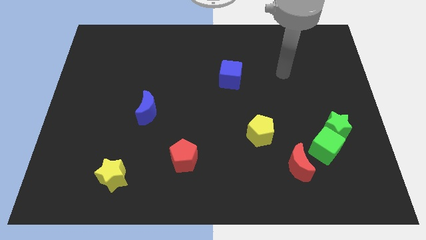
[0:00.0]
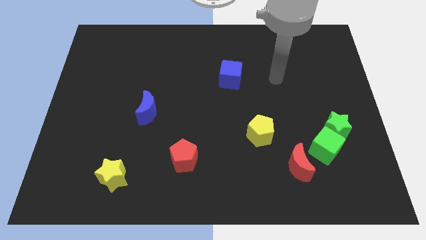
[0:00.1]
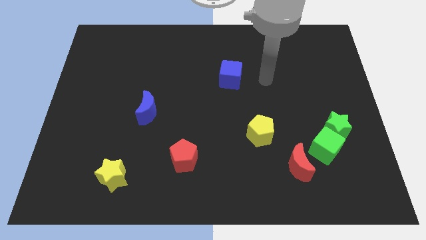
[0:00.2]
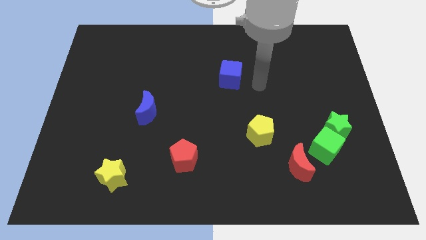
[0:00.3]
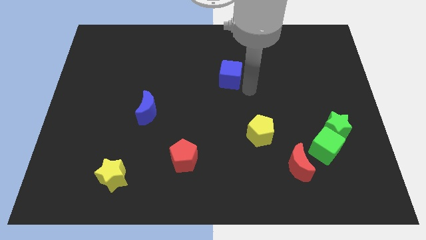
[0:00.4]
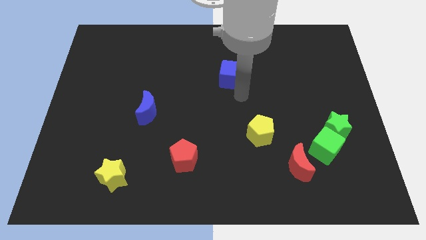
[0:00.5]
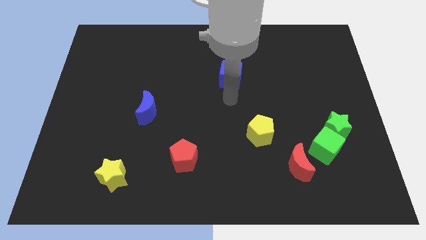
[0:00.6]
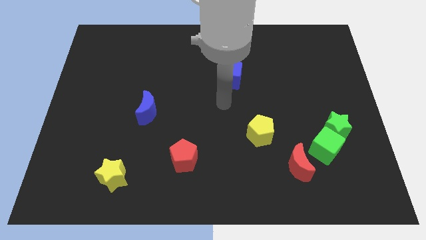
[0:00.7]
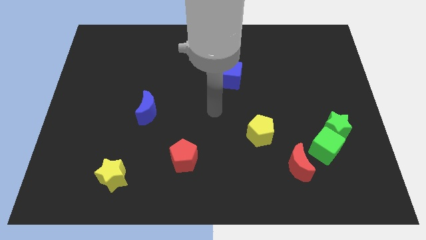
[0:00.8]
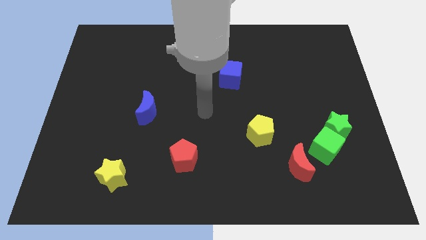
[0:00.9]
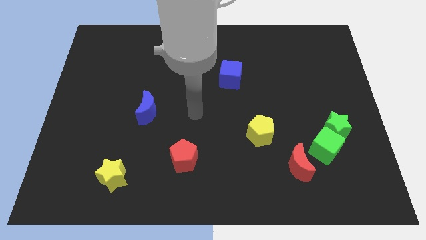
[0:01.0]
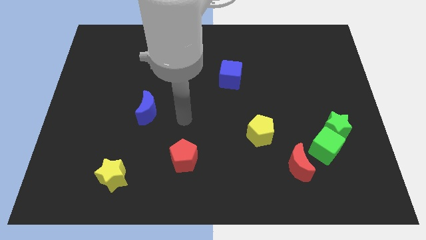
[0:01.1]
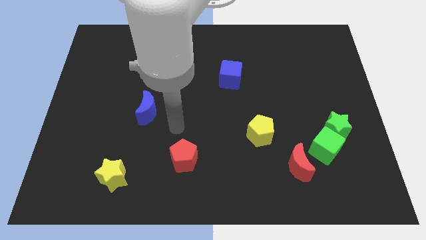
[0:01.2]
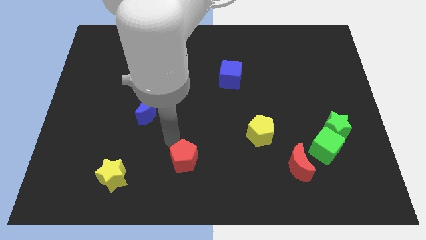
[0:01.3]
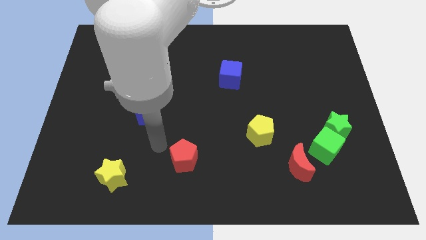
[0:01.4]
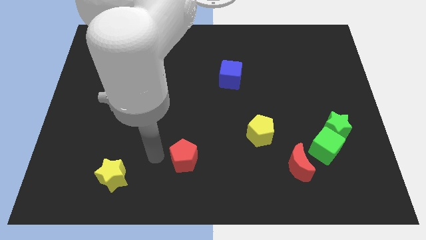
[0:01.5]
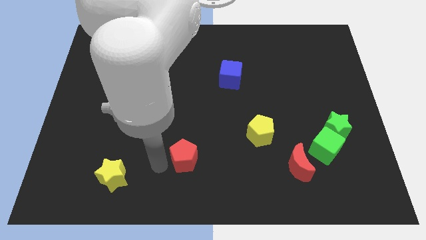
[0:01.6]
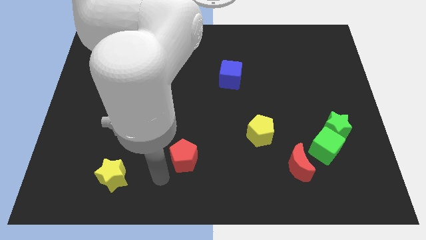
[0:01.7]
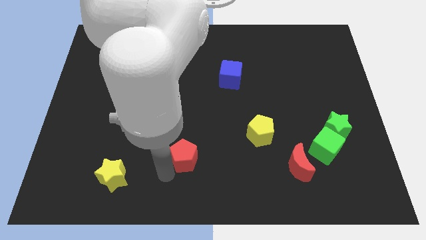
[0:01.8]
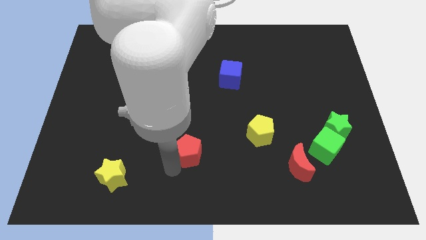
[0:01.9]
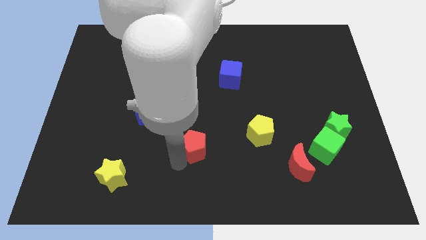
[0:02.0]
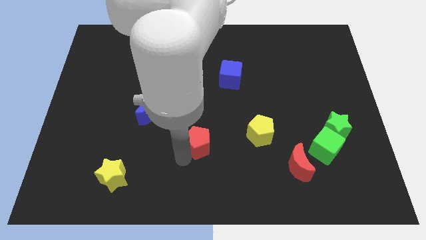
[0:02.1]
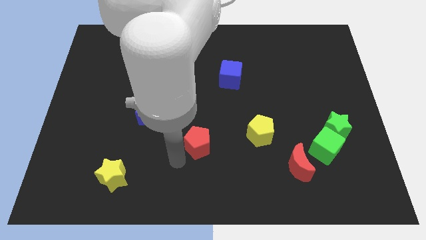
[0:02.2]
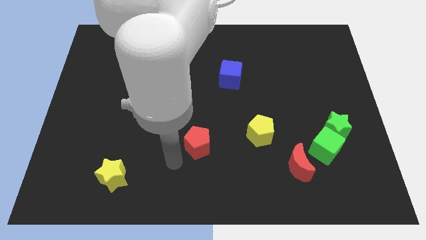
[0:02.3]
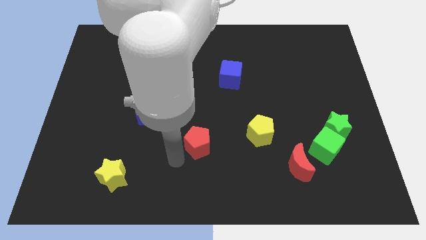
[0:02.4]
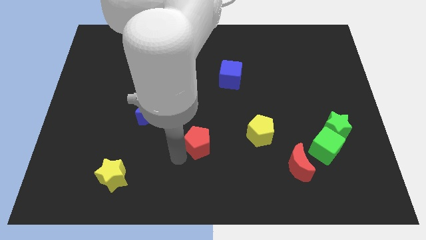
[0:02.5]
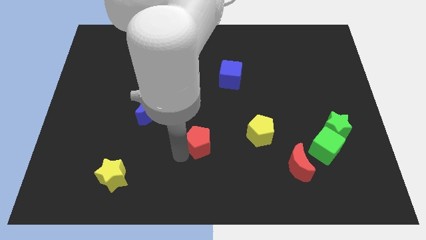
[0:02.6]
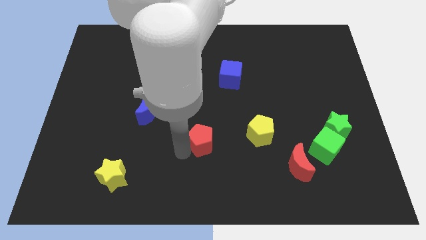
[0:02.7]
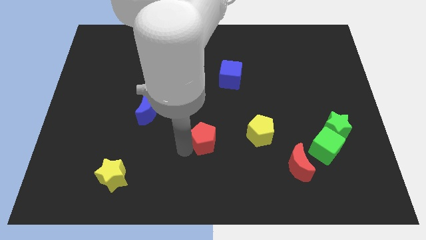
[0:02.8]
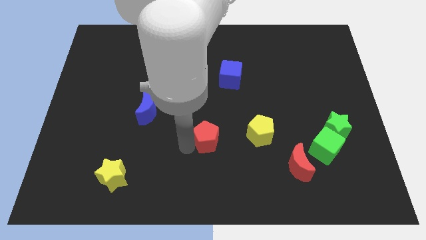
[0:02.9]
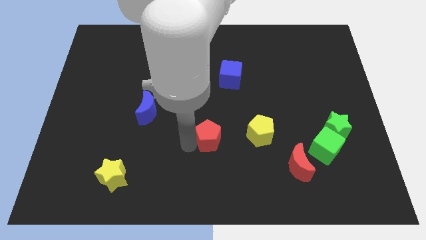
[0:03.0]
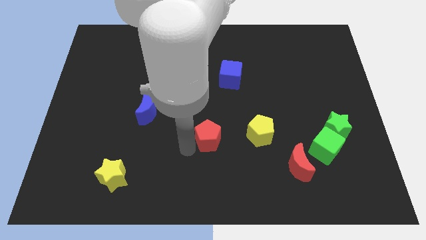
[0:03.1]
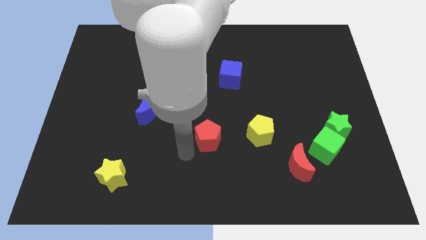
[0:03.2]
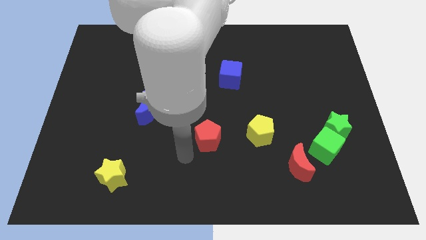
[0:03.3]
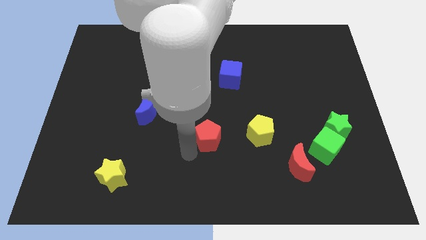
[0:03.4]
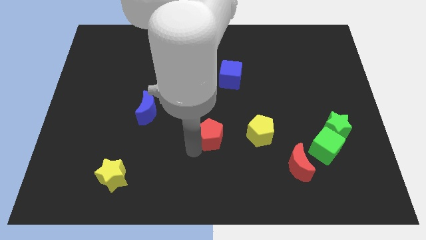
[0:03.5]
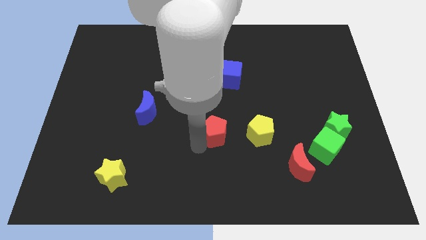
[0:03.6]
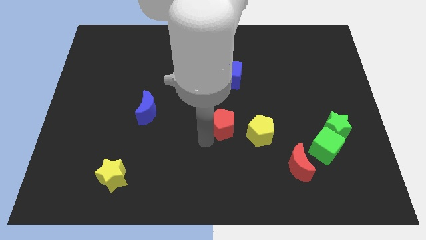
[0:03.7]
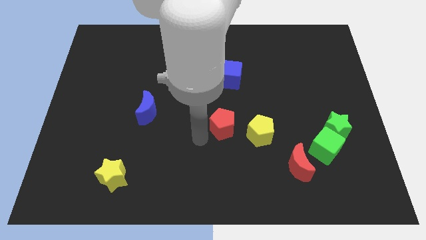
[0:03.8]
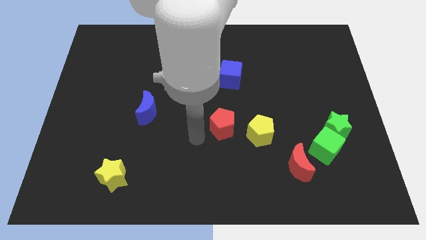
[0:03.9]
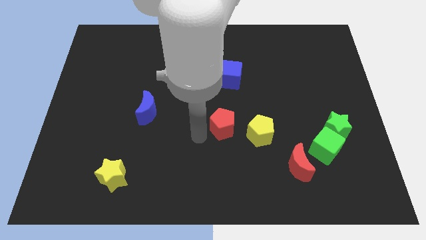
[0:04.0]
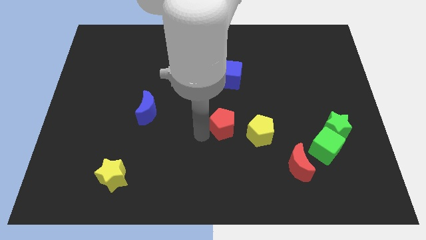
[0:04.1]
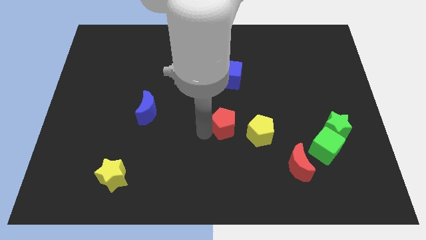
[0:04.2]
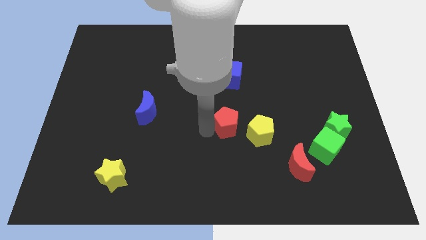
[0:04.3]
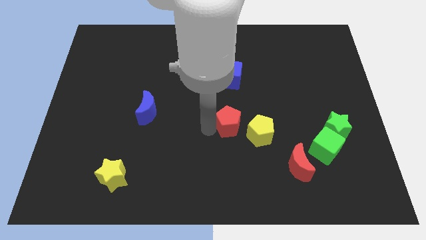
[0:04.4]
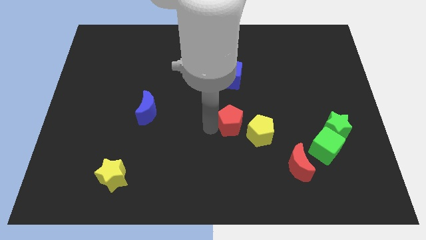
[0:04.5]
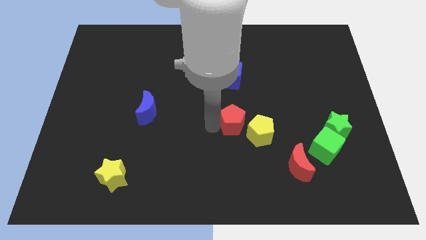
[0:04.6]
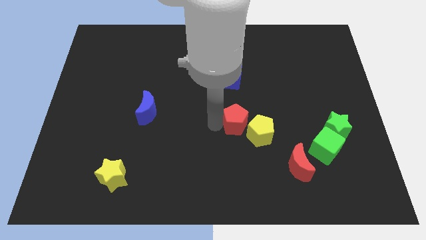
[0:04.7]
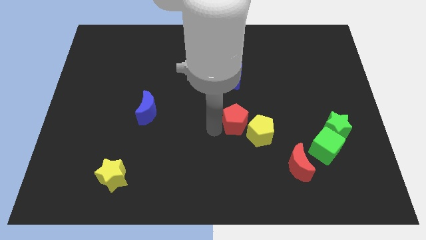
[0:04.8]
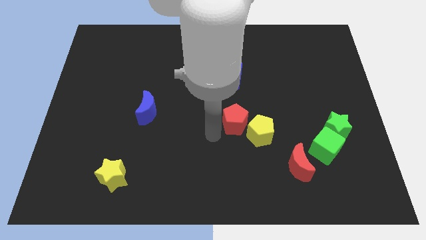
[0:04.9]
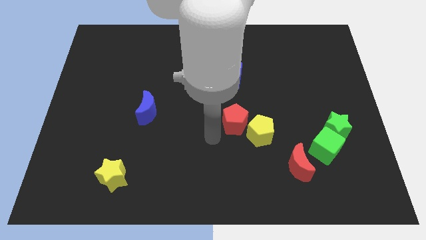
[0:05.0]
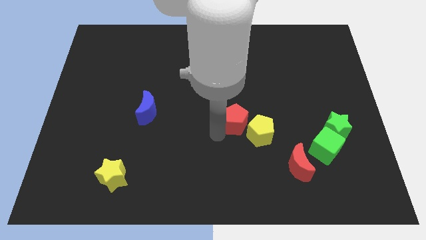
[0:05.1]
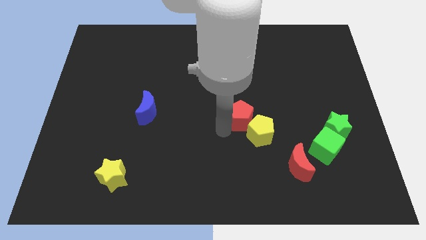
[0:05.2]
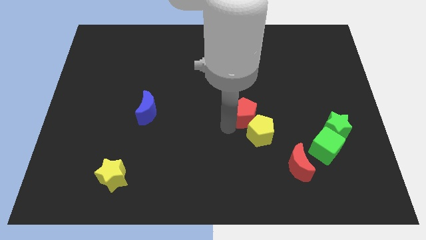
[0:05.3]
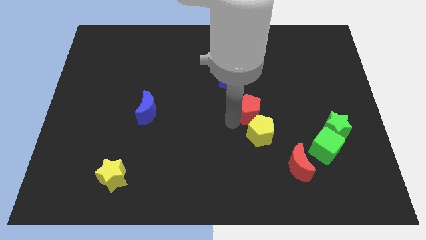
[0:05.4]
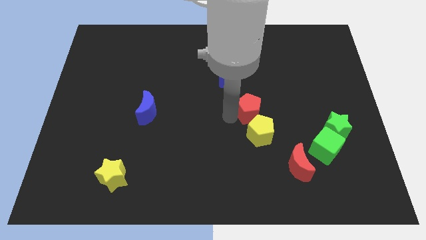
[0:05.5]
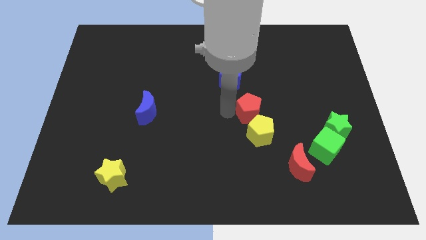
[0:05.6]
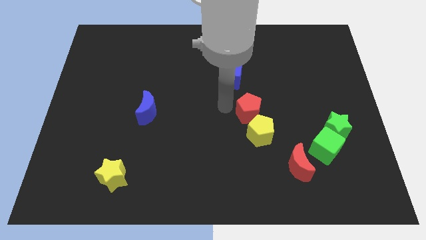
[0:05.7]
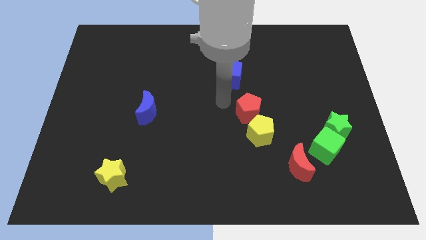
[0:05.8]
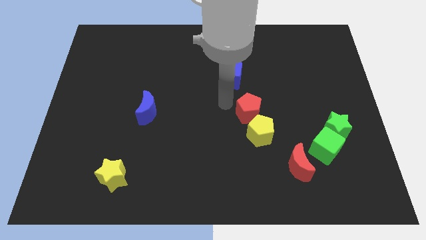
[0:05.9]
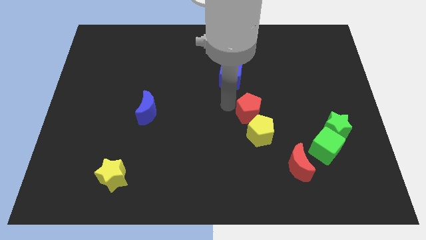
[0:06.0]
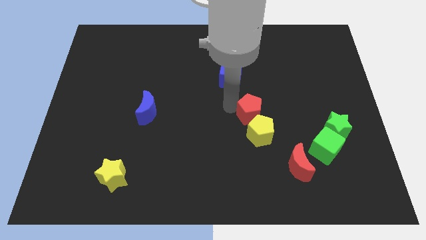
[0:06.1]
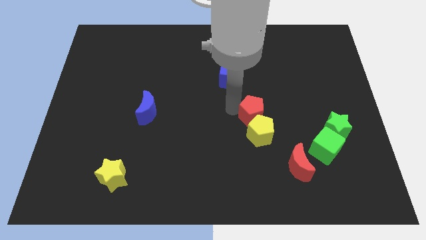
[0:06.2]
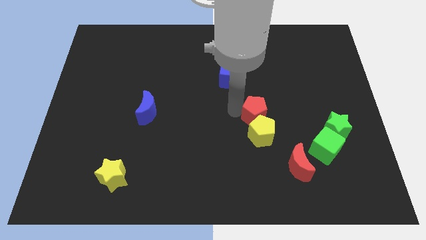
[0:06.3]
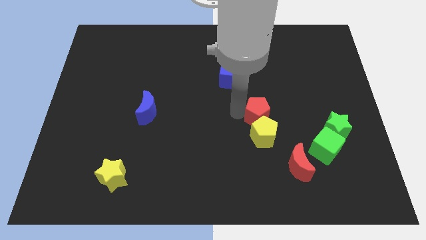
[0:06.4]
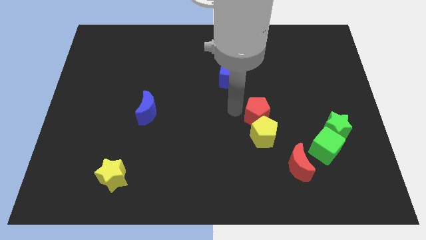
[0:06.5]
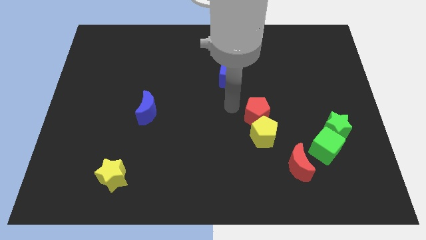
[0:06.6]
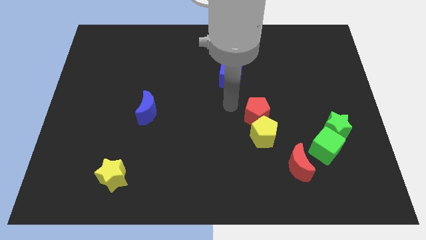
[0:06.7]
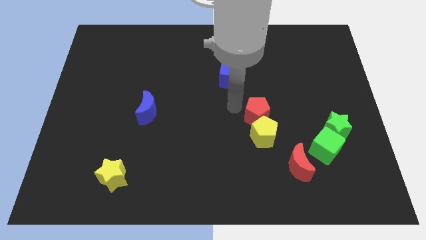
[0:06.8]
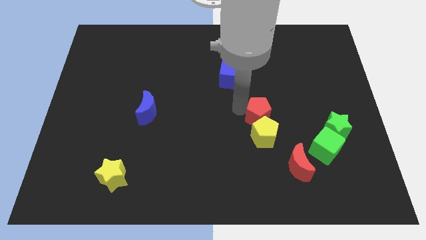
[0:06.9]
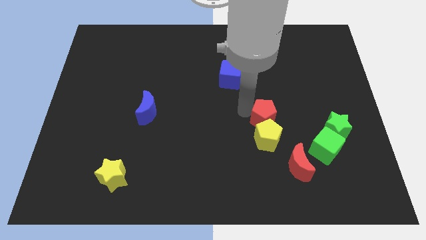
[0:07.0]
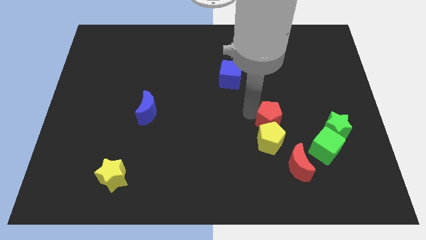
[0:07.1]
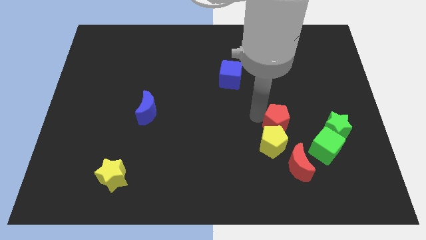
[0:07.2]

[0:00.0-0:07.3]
slide the red pentagon to the top of the red moon

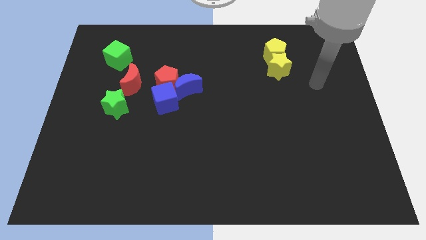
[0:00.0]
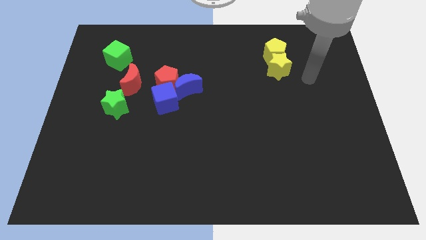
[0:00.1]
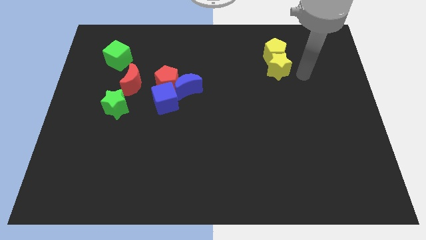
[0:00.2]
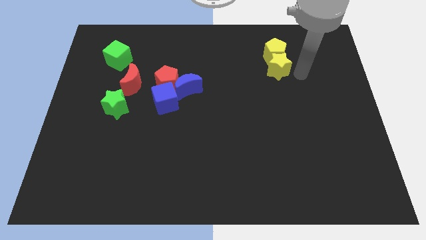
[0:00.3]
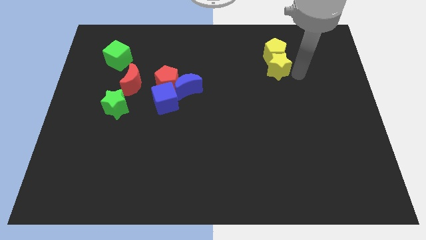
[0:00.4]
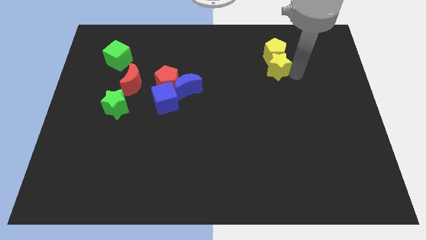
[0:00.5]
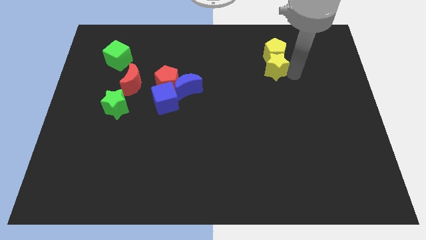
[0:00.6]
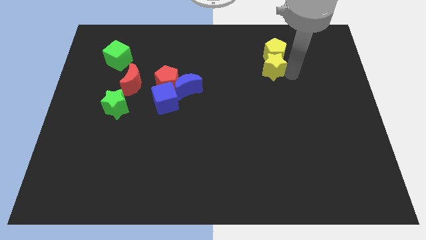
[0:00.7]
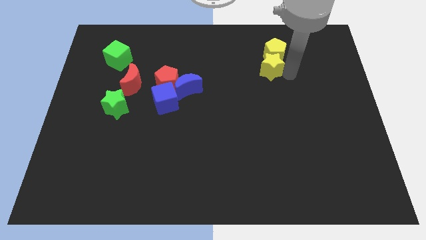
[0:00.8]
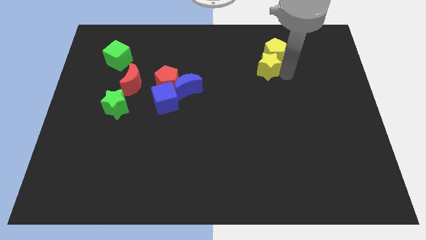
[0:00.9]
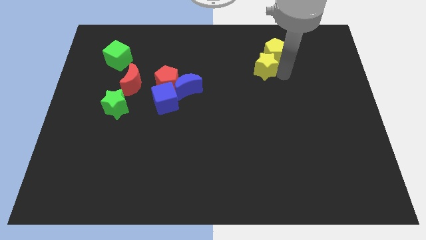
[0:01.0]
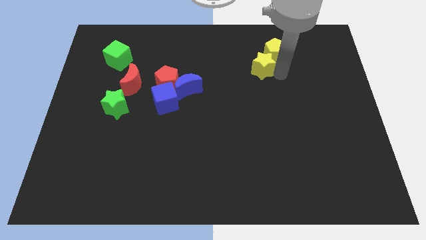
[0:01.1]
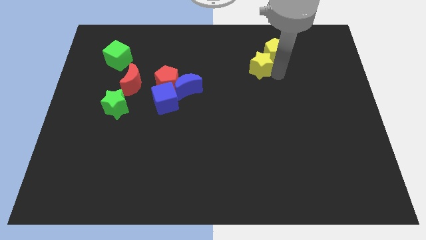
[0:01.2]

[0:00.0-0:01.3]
push the yellow star left of the yellow pentagon

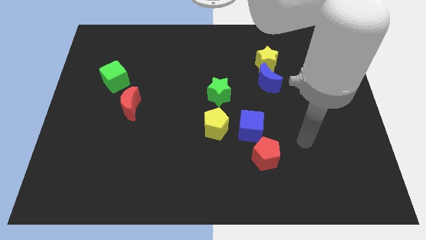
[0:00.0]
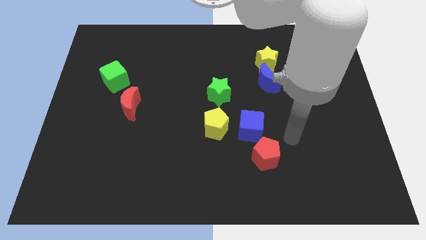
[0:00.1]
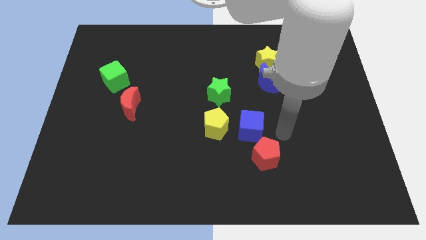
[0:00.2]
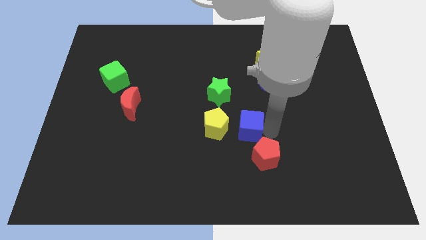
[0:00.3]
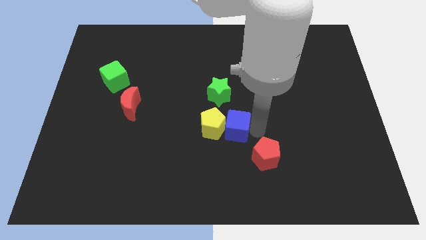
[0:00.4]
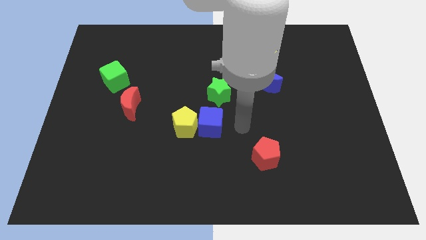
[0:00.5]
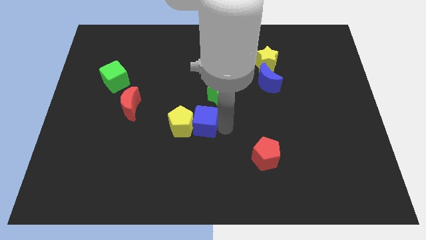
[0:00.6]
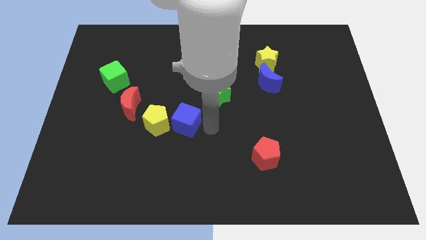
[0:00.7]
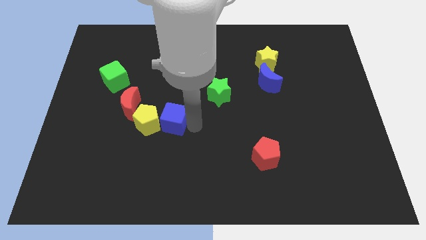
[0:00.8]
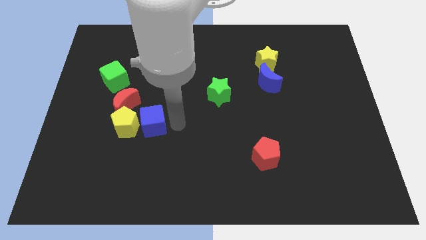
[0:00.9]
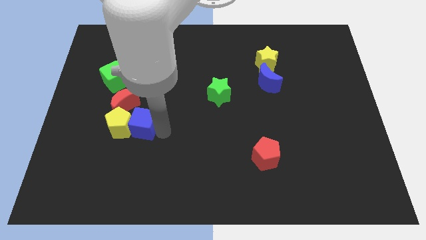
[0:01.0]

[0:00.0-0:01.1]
slide the yellow pentagon below the green cube
